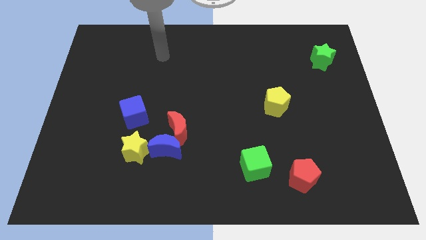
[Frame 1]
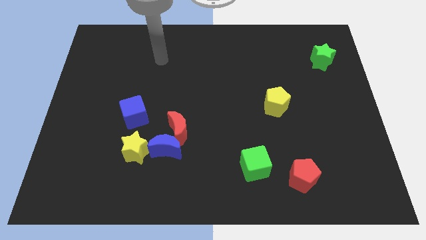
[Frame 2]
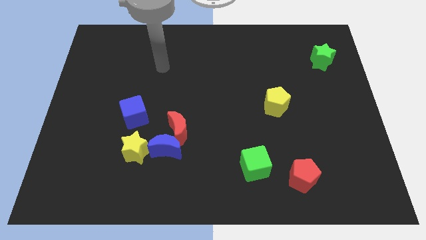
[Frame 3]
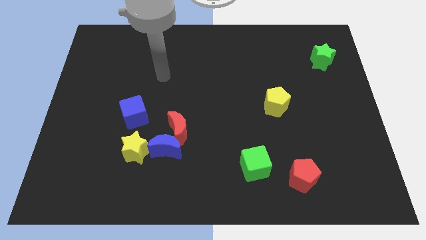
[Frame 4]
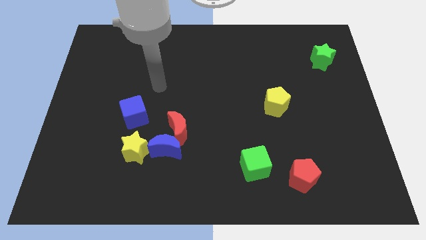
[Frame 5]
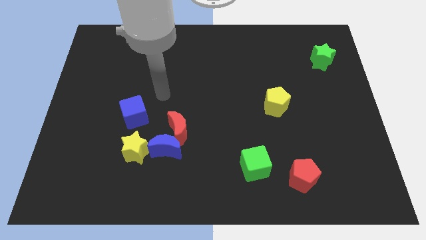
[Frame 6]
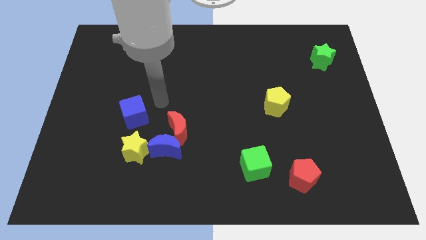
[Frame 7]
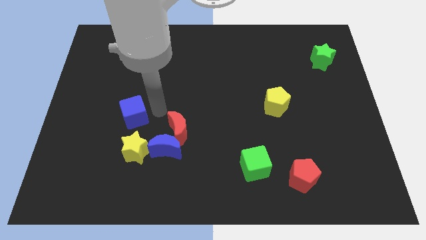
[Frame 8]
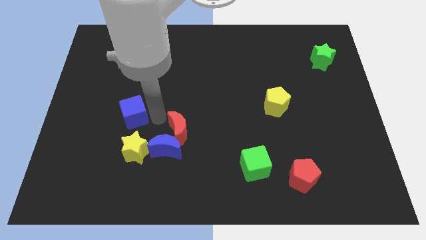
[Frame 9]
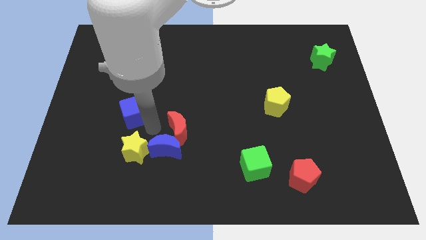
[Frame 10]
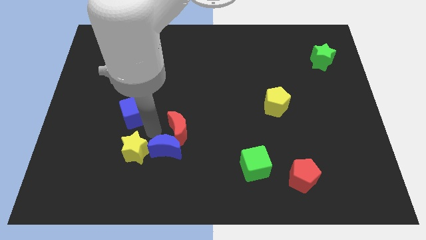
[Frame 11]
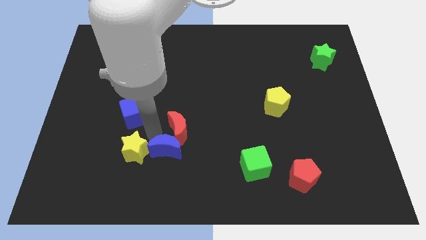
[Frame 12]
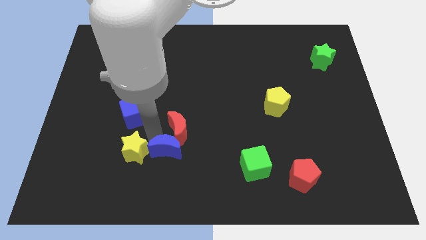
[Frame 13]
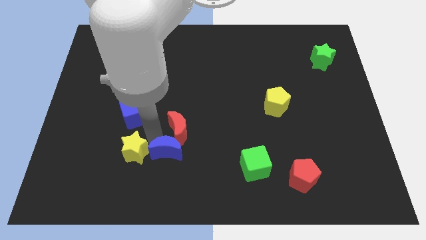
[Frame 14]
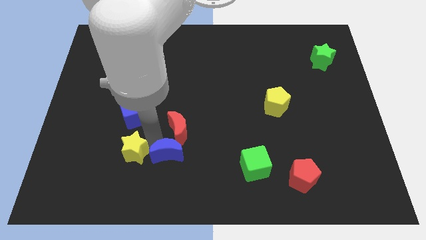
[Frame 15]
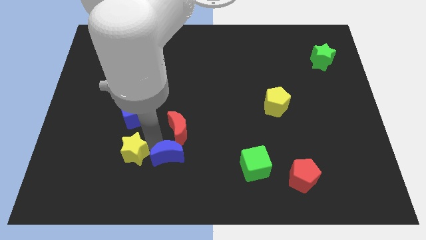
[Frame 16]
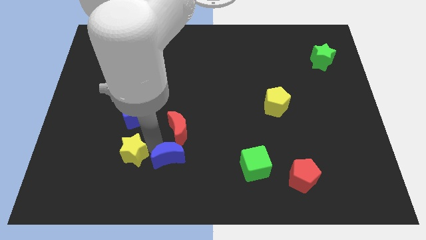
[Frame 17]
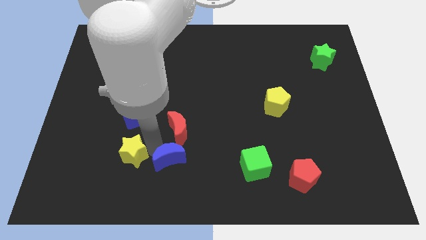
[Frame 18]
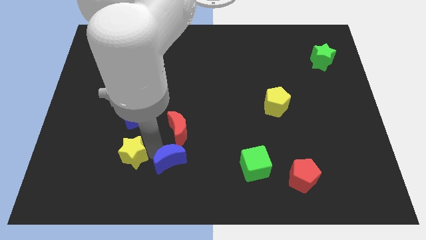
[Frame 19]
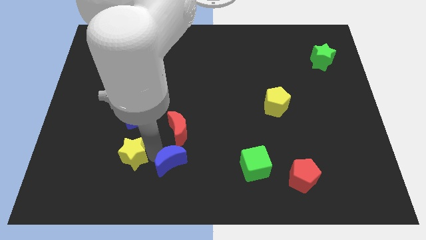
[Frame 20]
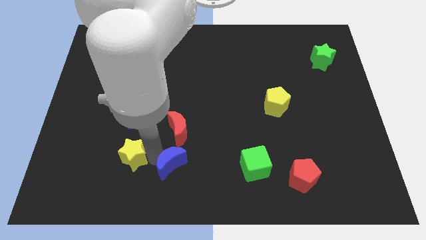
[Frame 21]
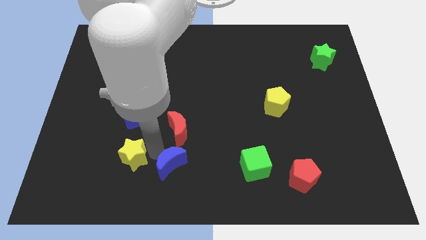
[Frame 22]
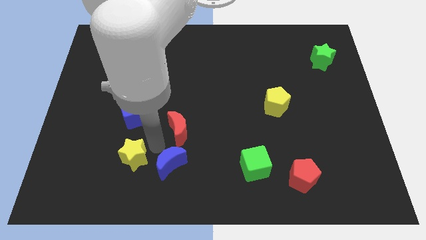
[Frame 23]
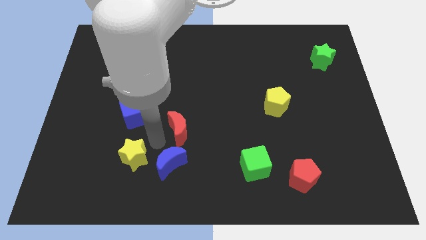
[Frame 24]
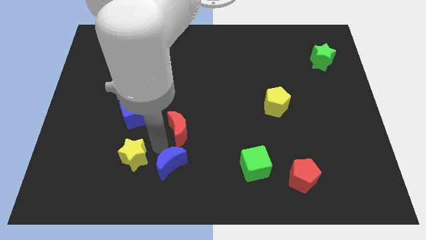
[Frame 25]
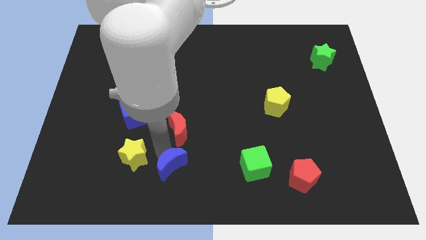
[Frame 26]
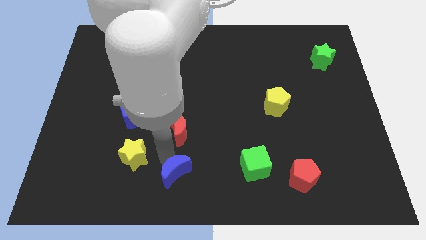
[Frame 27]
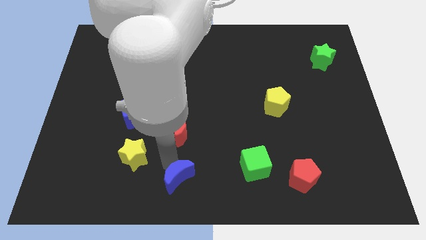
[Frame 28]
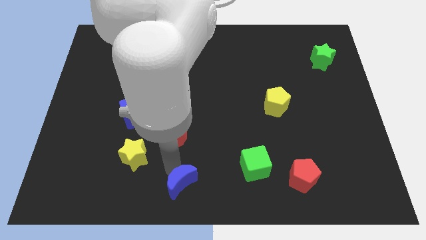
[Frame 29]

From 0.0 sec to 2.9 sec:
separate the blue moon from the red moon and yellow star

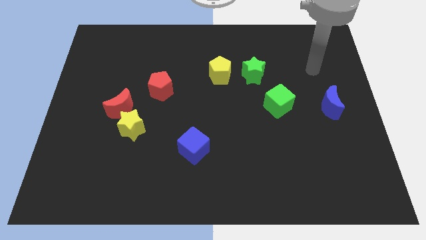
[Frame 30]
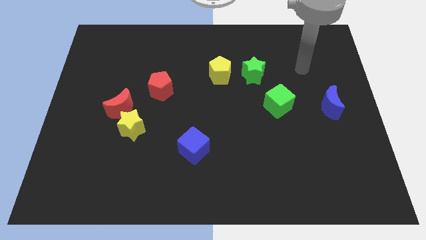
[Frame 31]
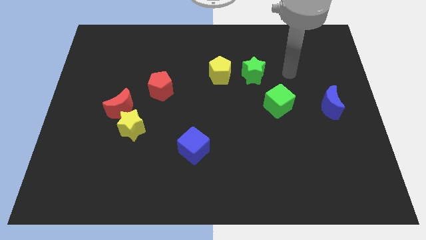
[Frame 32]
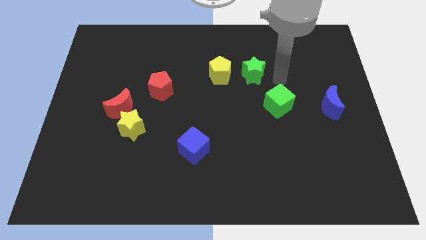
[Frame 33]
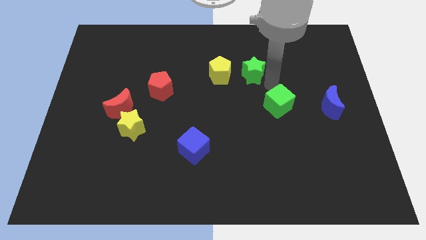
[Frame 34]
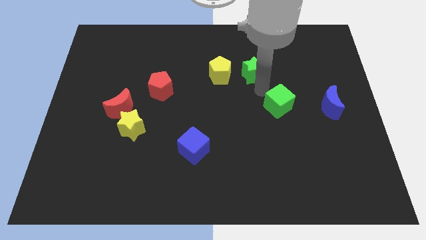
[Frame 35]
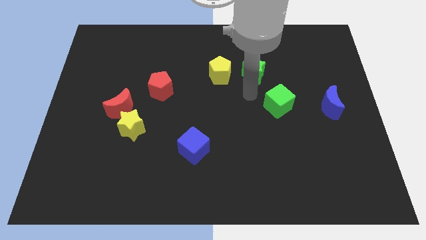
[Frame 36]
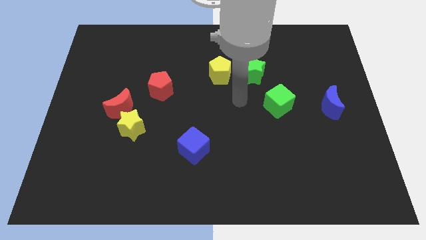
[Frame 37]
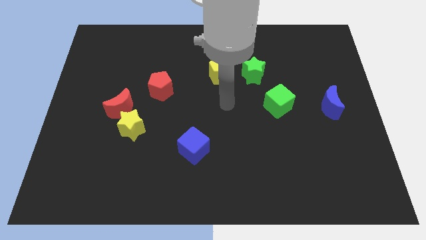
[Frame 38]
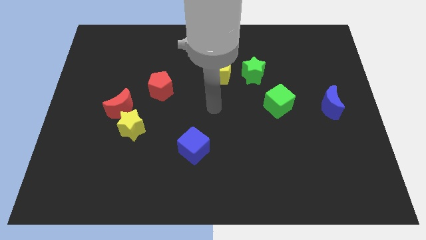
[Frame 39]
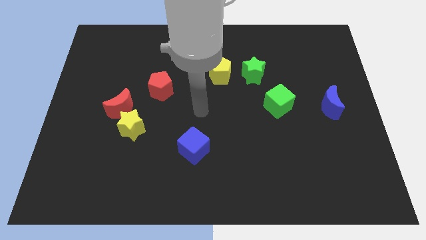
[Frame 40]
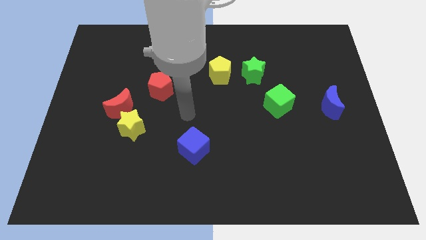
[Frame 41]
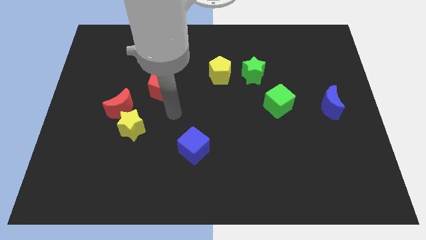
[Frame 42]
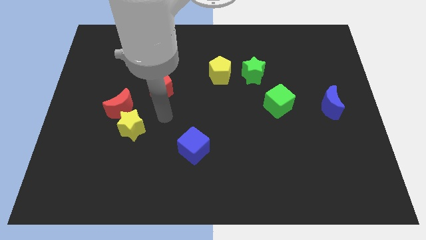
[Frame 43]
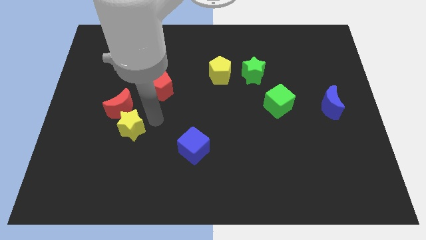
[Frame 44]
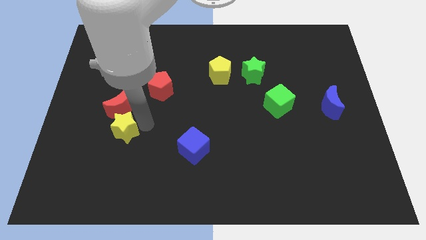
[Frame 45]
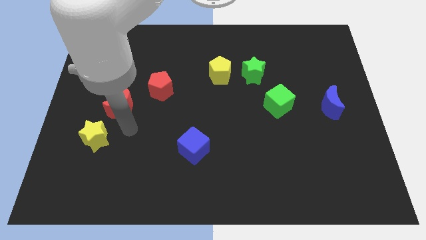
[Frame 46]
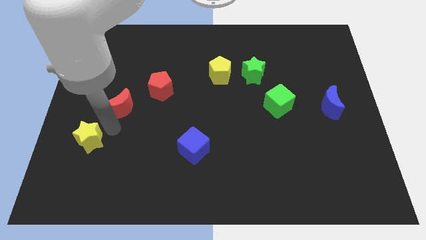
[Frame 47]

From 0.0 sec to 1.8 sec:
move the red moon away from the yellow star

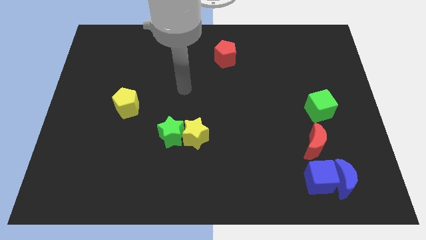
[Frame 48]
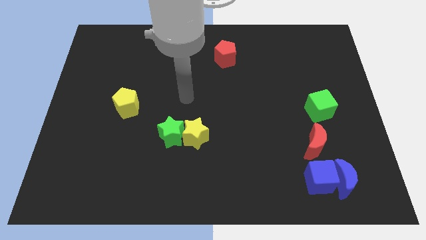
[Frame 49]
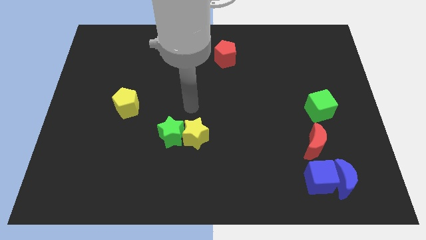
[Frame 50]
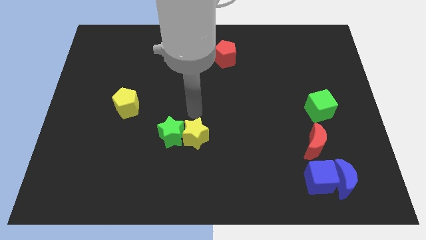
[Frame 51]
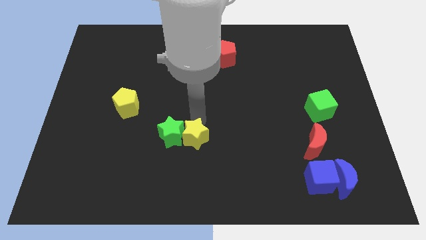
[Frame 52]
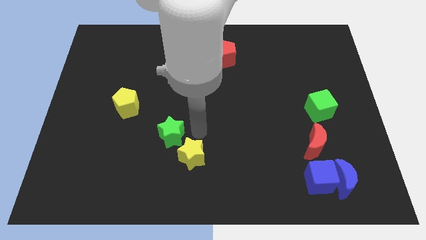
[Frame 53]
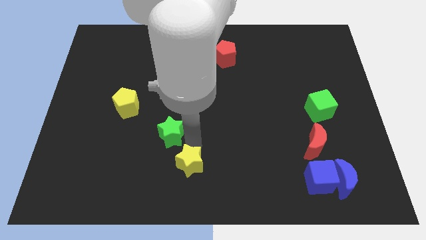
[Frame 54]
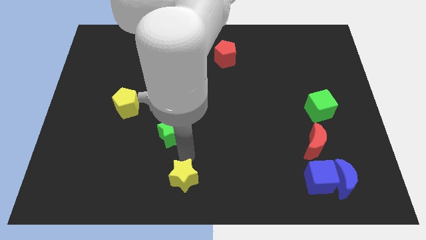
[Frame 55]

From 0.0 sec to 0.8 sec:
move the green star away from the yellow star

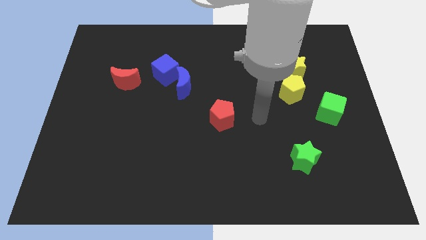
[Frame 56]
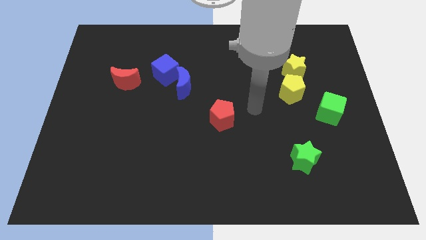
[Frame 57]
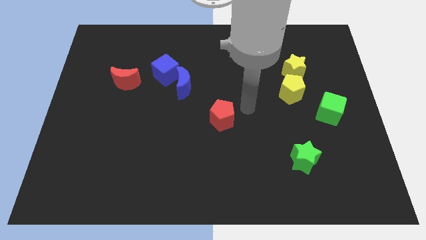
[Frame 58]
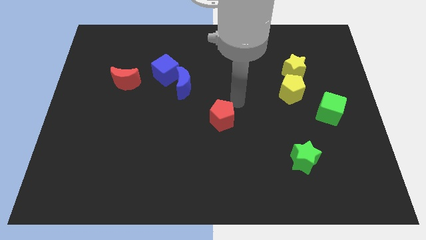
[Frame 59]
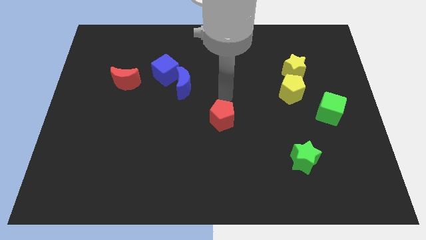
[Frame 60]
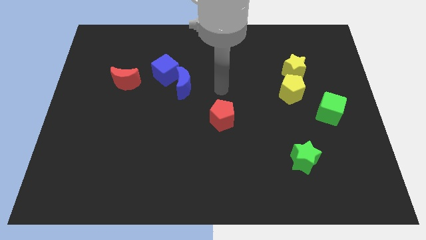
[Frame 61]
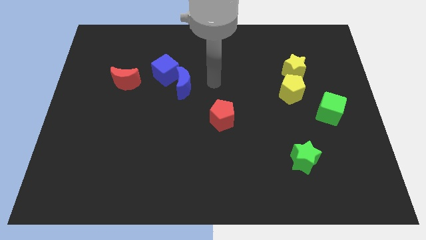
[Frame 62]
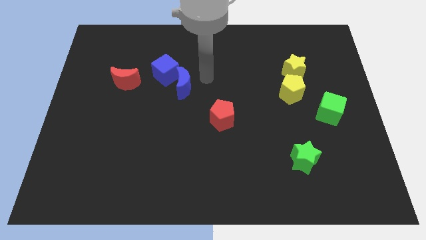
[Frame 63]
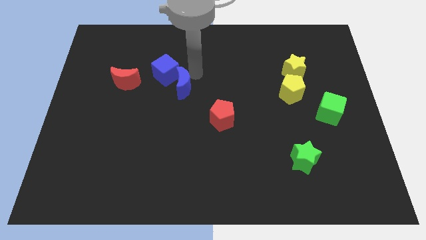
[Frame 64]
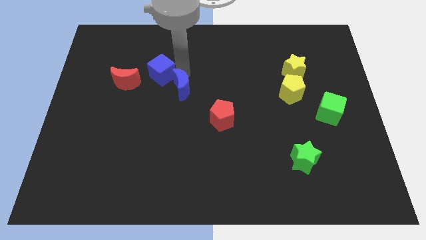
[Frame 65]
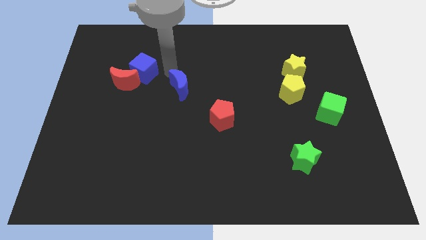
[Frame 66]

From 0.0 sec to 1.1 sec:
separate the blue moon from the blue cube

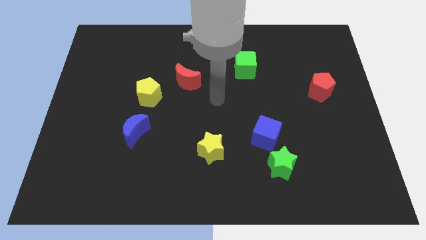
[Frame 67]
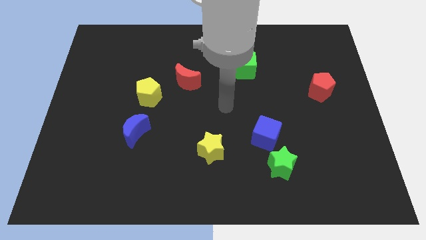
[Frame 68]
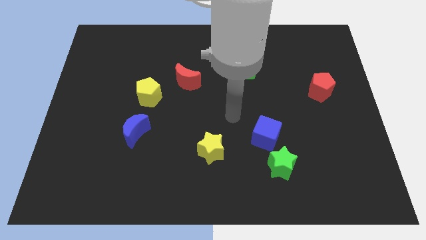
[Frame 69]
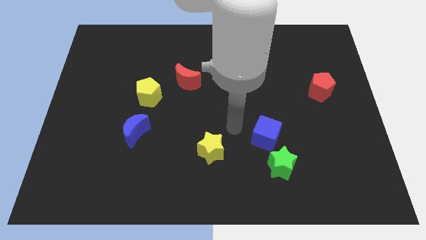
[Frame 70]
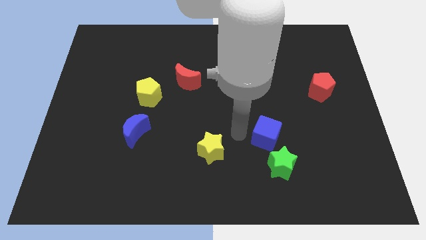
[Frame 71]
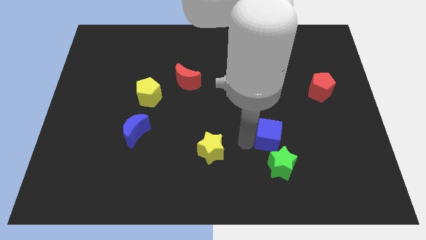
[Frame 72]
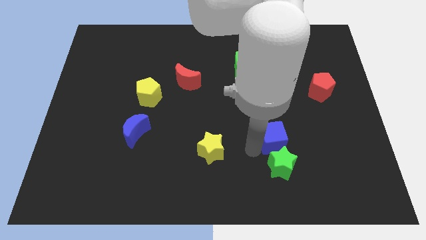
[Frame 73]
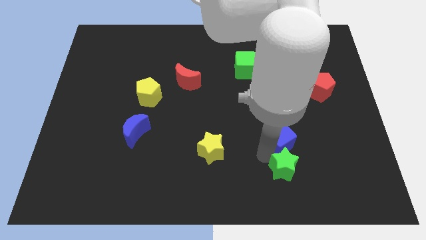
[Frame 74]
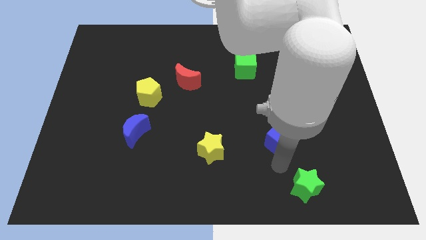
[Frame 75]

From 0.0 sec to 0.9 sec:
separate the blue cube from the green star

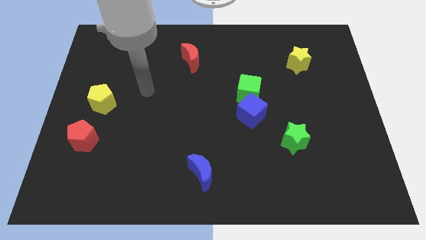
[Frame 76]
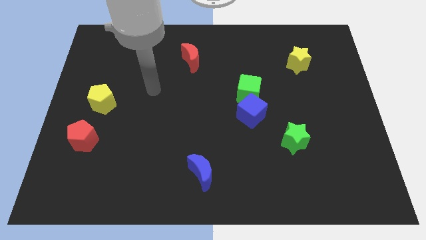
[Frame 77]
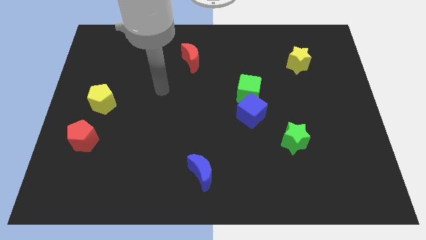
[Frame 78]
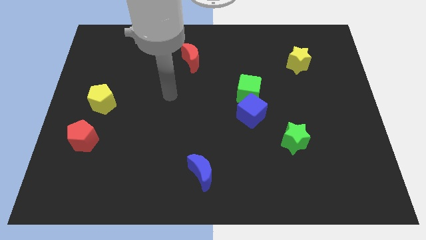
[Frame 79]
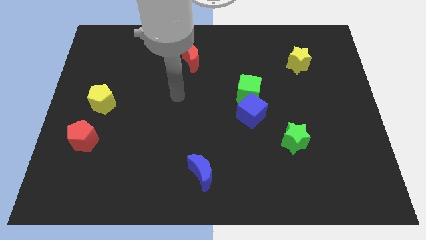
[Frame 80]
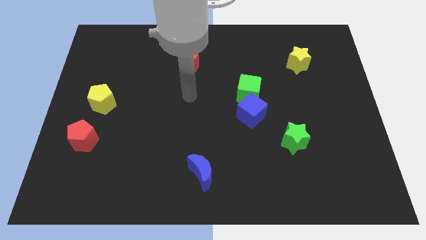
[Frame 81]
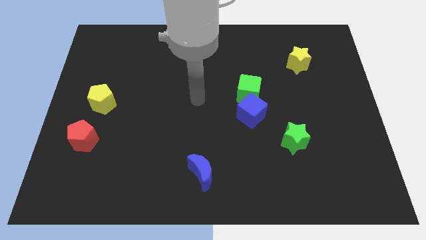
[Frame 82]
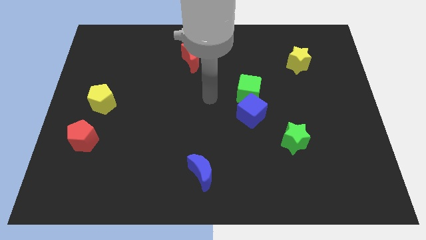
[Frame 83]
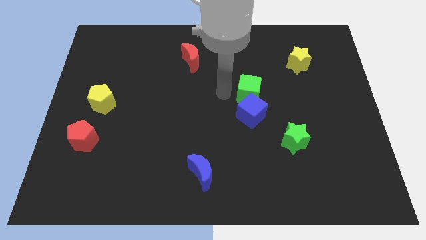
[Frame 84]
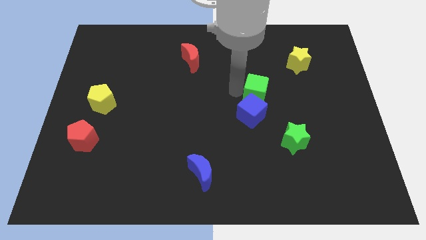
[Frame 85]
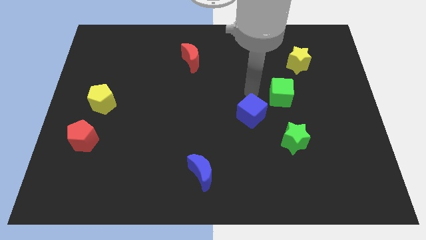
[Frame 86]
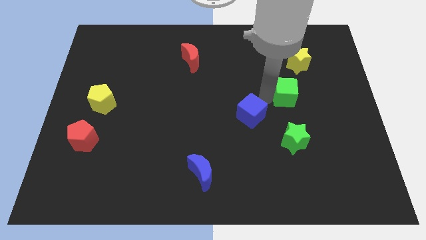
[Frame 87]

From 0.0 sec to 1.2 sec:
pull the blue cube apart from the green cube

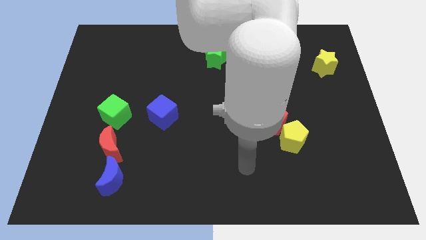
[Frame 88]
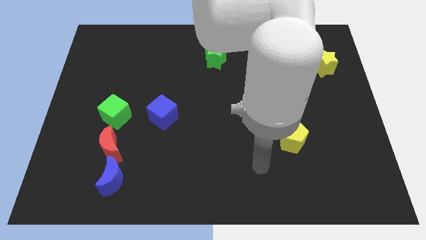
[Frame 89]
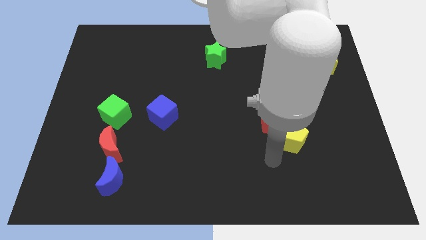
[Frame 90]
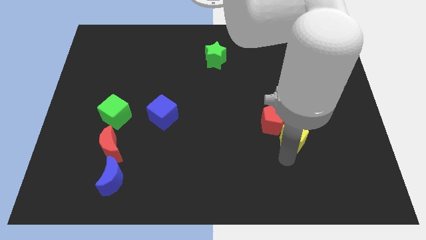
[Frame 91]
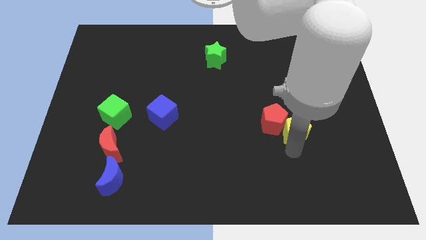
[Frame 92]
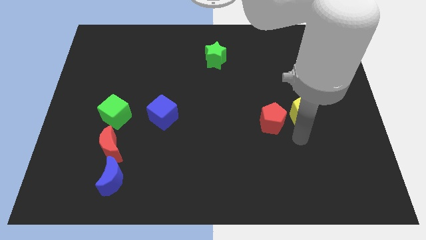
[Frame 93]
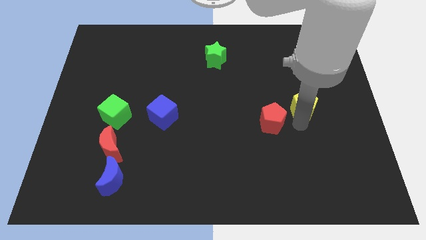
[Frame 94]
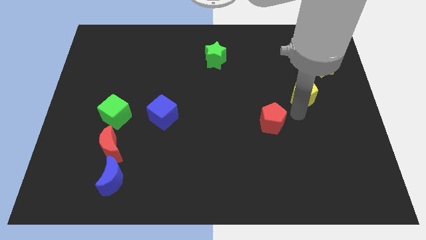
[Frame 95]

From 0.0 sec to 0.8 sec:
separate the red pentagon from the yellow pentagon
